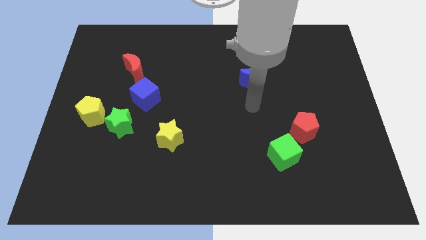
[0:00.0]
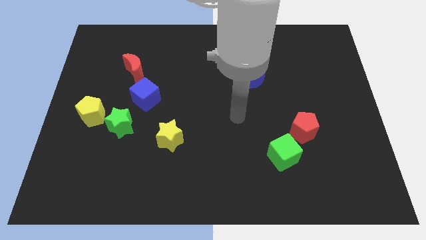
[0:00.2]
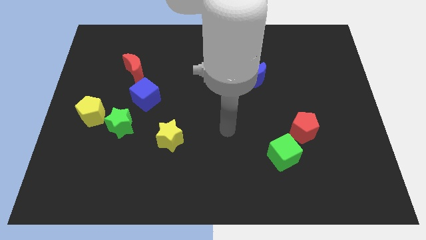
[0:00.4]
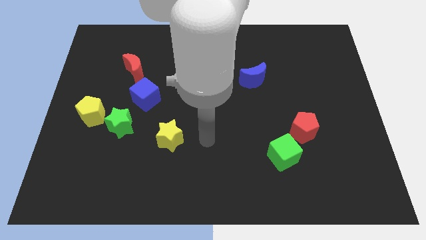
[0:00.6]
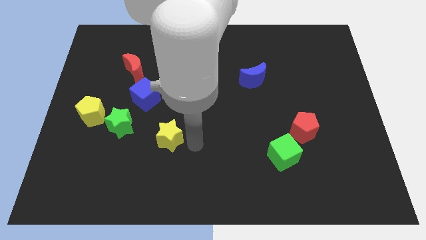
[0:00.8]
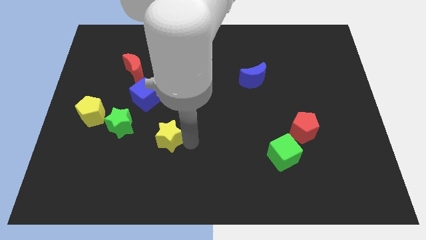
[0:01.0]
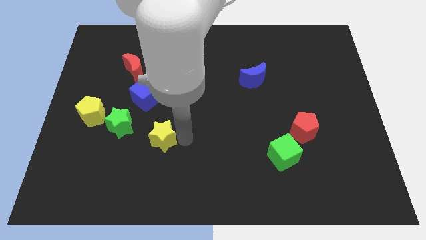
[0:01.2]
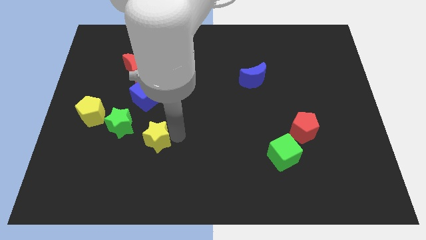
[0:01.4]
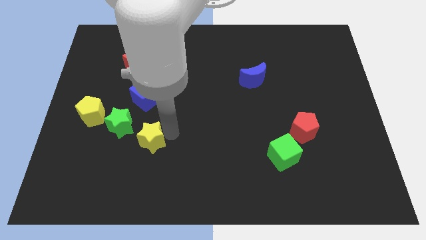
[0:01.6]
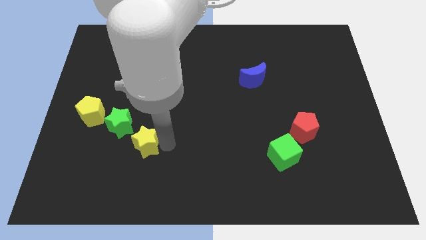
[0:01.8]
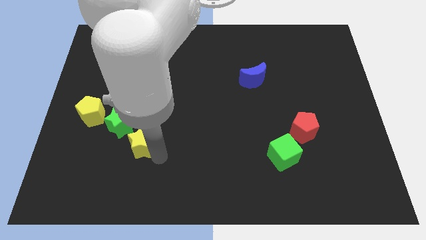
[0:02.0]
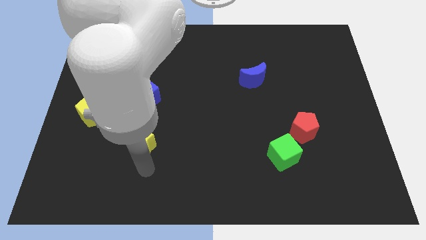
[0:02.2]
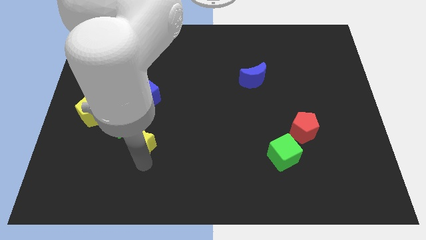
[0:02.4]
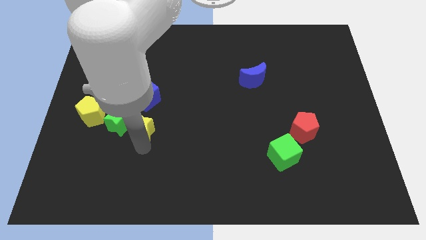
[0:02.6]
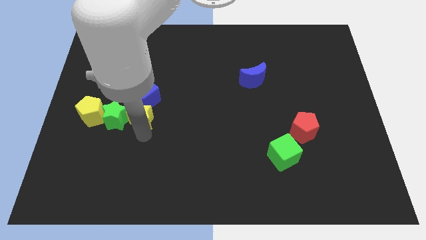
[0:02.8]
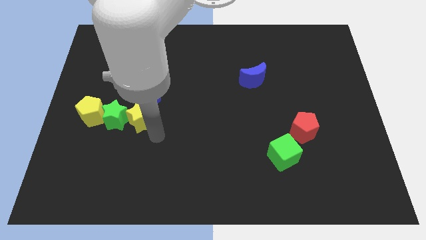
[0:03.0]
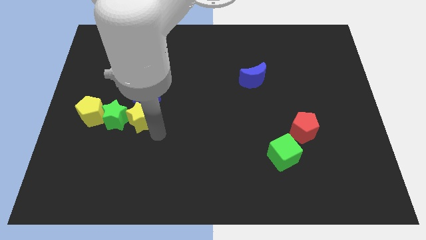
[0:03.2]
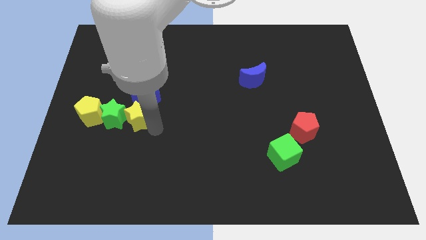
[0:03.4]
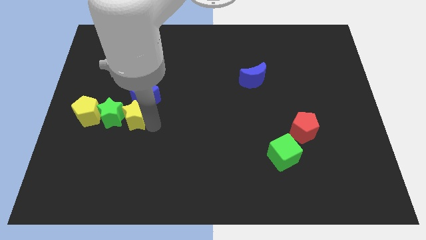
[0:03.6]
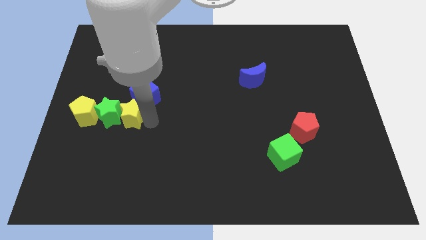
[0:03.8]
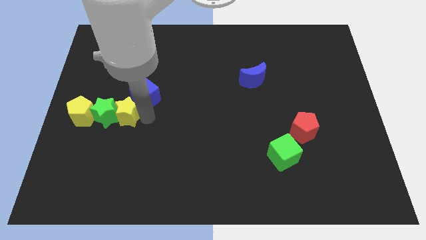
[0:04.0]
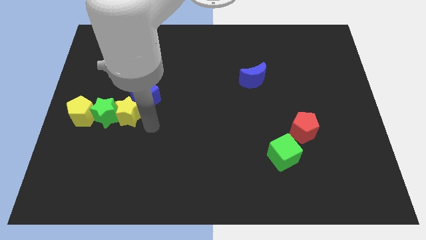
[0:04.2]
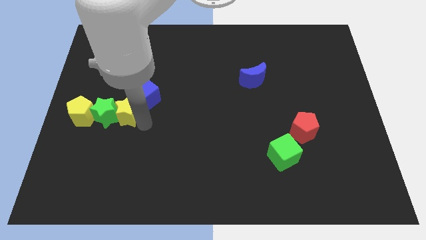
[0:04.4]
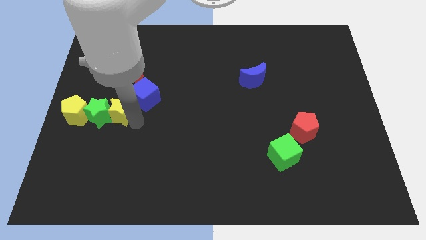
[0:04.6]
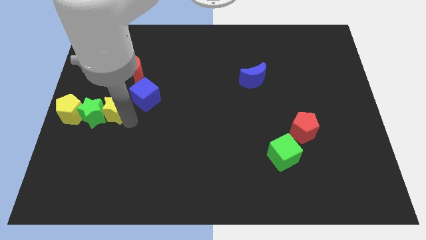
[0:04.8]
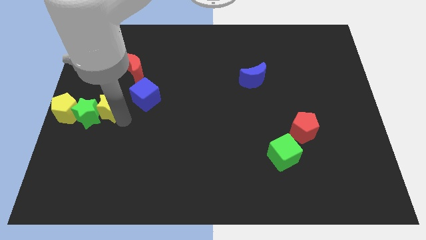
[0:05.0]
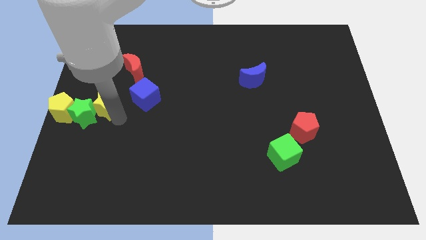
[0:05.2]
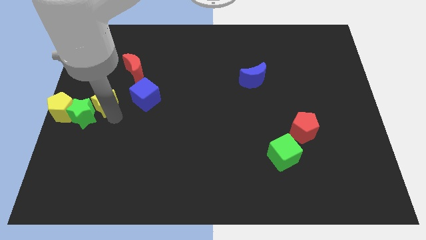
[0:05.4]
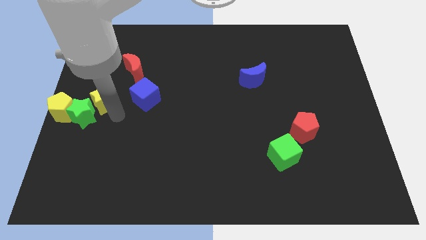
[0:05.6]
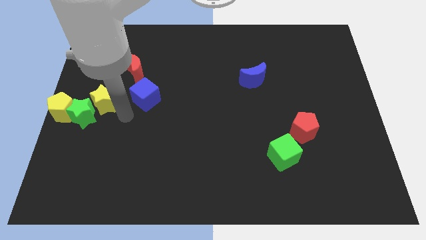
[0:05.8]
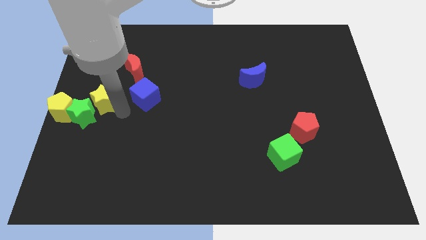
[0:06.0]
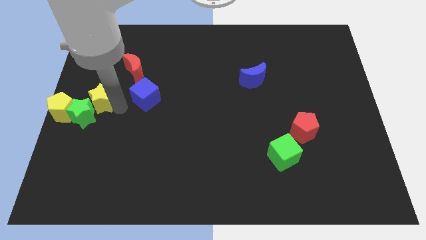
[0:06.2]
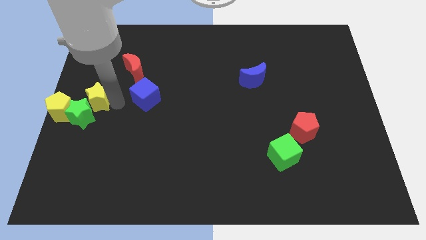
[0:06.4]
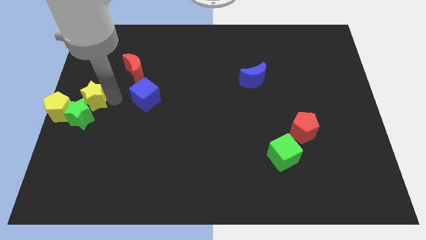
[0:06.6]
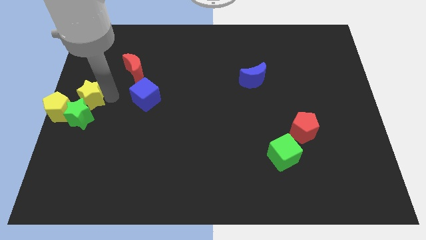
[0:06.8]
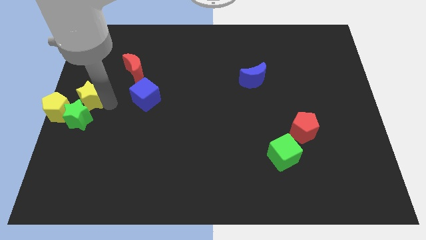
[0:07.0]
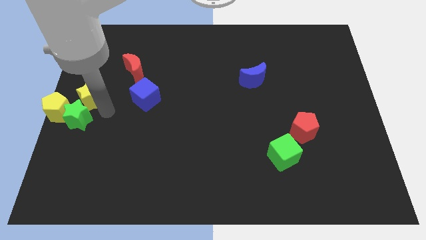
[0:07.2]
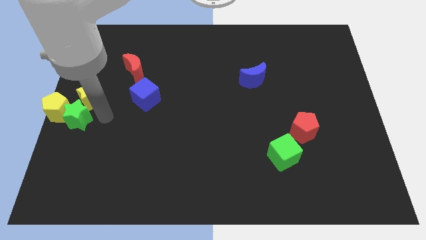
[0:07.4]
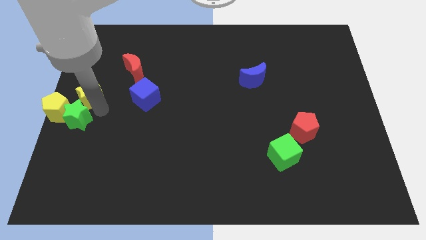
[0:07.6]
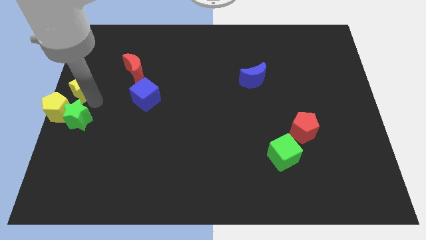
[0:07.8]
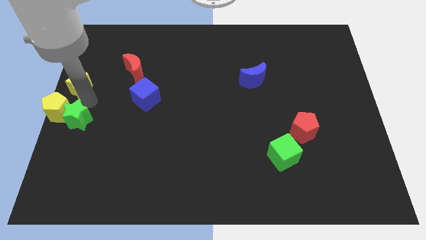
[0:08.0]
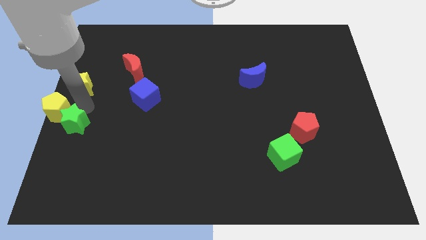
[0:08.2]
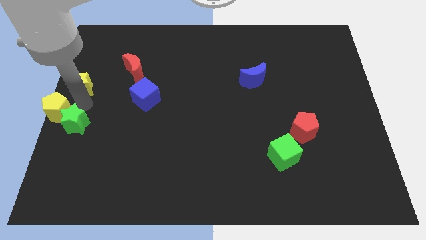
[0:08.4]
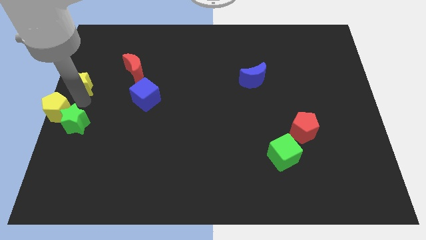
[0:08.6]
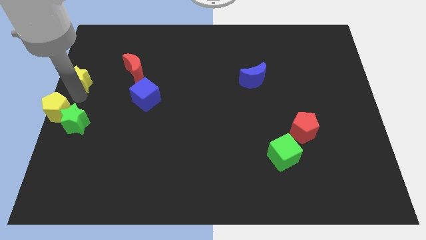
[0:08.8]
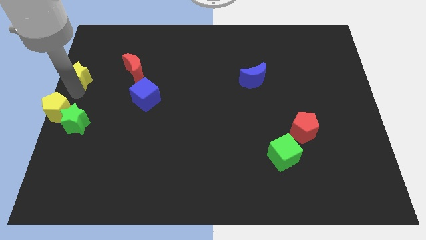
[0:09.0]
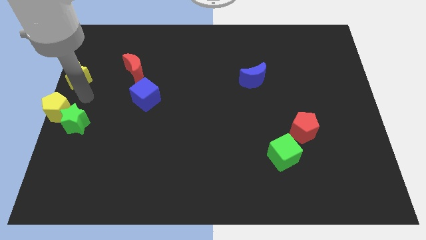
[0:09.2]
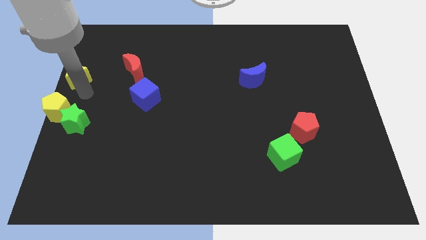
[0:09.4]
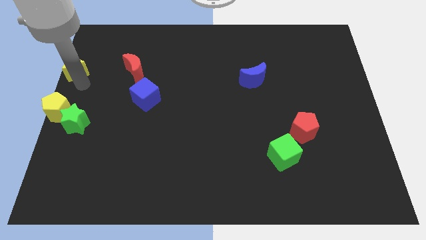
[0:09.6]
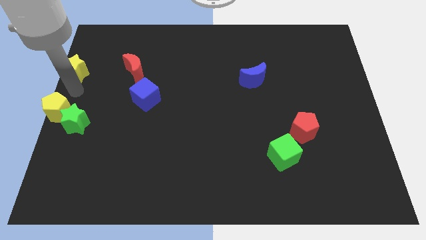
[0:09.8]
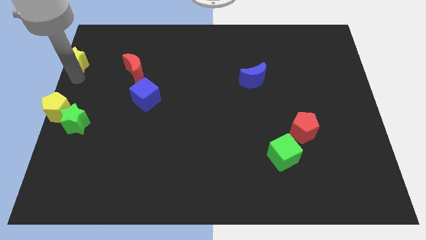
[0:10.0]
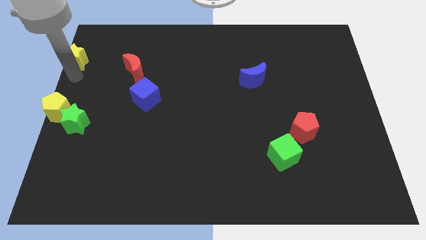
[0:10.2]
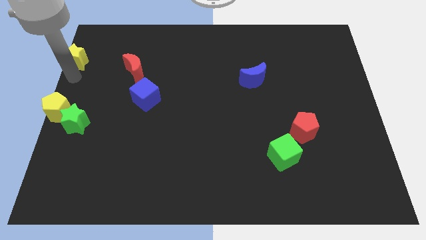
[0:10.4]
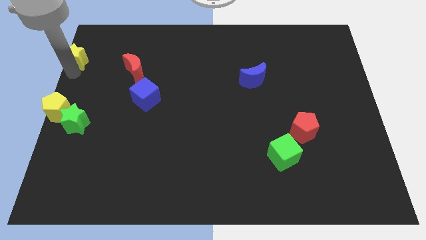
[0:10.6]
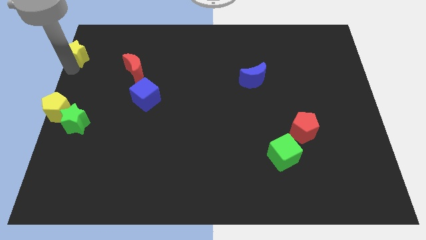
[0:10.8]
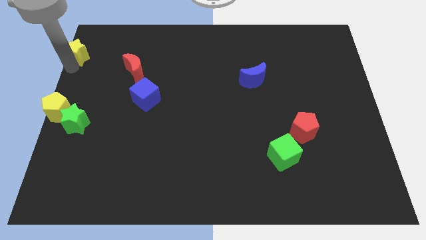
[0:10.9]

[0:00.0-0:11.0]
push the yellow star to the top left of the board
